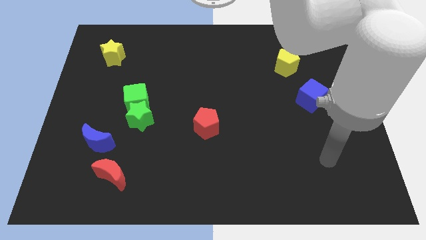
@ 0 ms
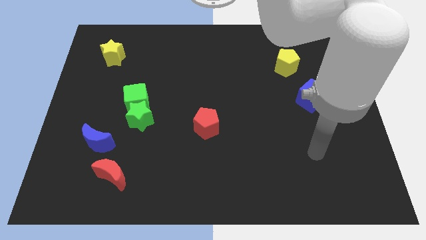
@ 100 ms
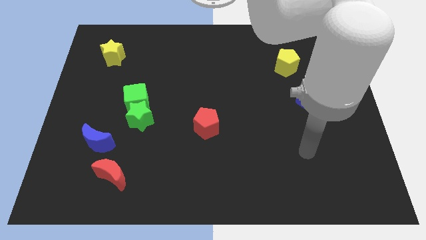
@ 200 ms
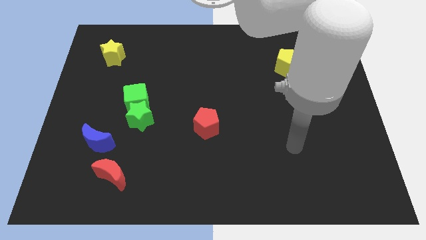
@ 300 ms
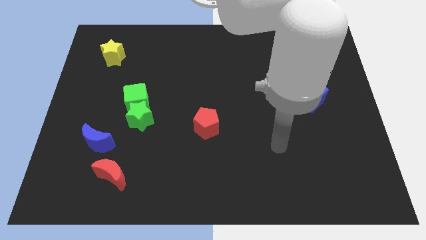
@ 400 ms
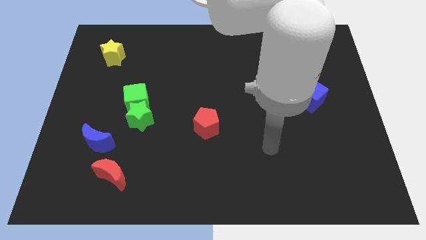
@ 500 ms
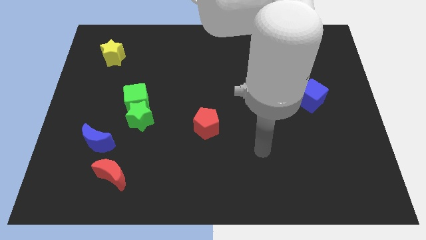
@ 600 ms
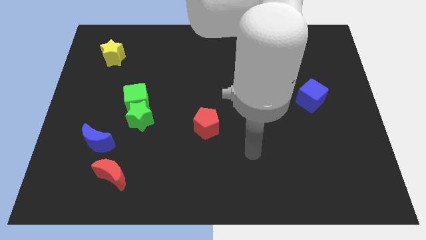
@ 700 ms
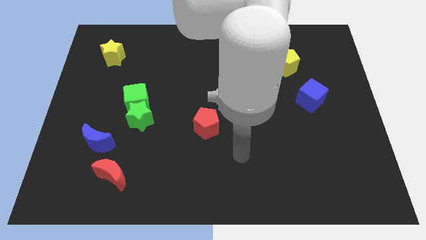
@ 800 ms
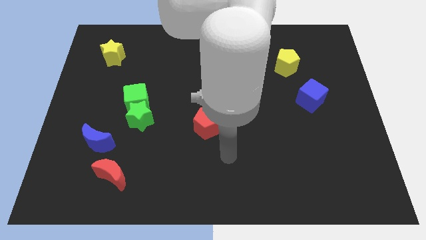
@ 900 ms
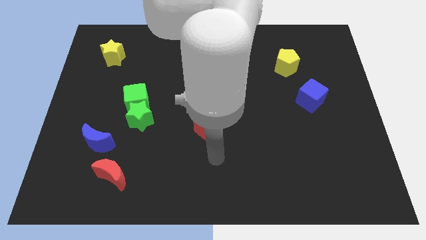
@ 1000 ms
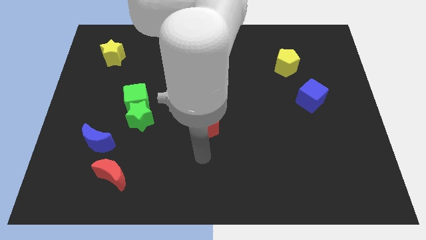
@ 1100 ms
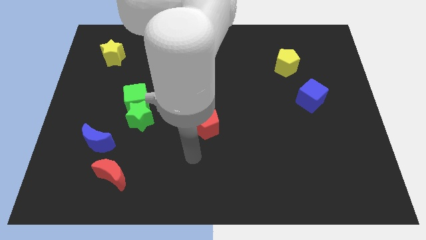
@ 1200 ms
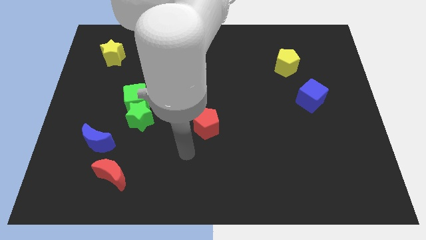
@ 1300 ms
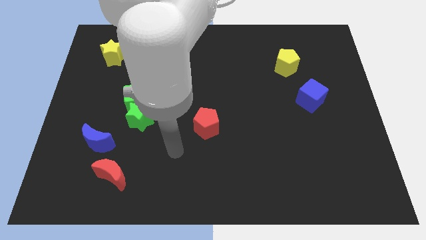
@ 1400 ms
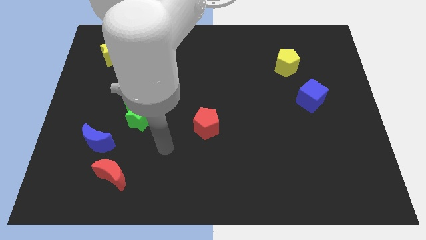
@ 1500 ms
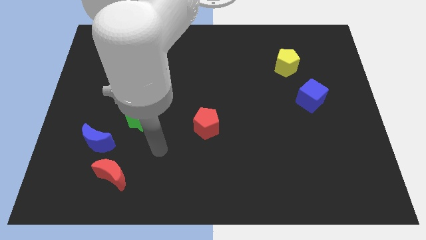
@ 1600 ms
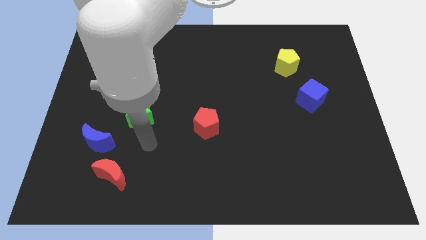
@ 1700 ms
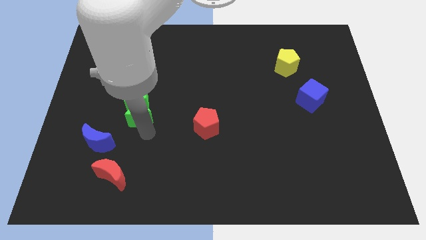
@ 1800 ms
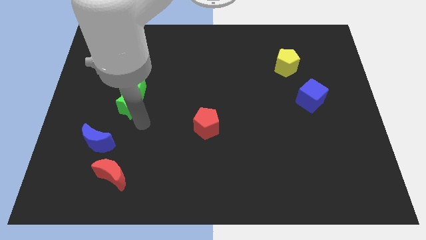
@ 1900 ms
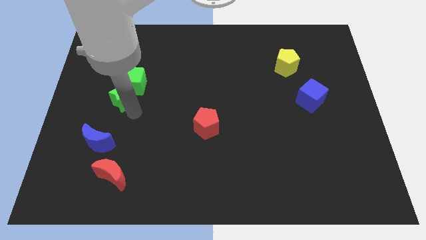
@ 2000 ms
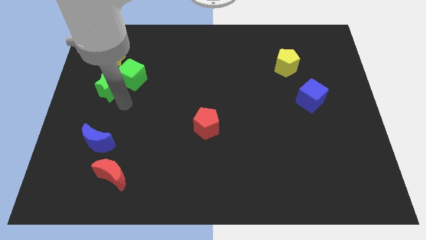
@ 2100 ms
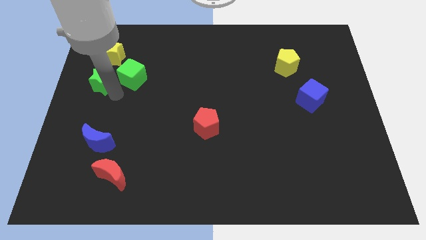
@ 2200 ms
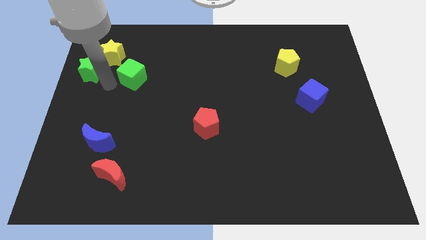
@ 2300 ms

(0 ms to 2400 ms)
pull the green cube apart from the green star

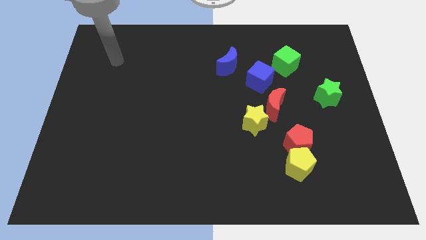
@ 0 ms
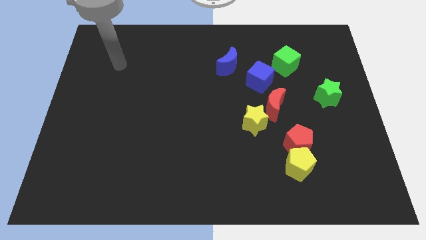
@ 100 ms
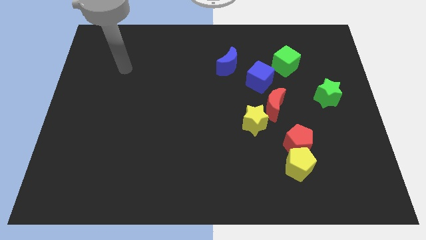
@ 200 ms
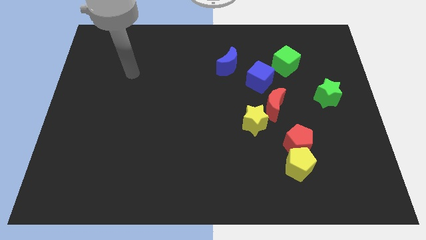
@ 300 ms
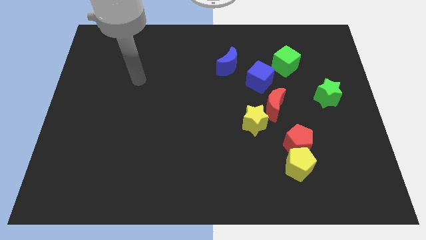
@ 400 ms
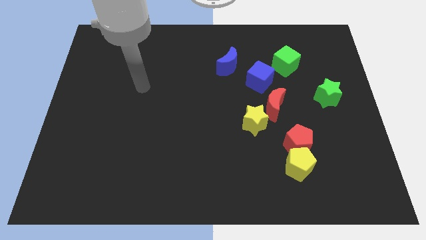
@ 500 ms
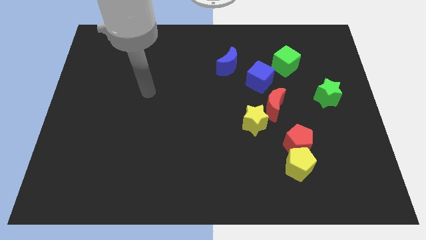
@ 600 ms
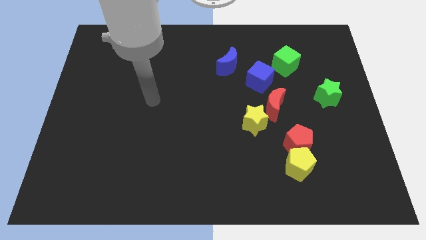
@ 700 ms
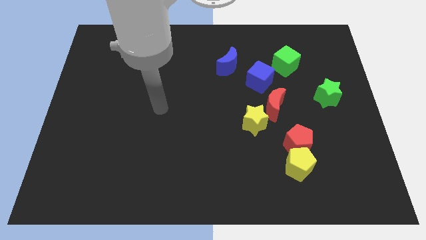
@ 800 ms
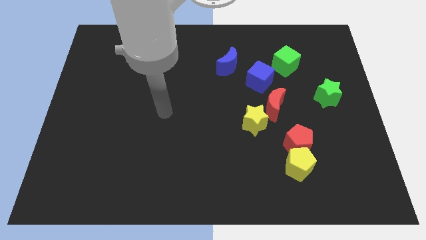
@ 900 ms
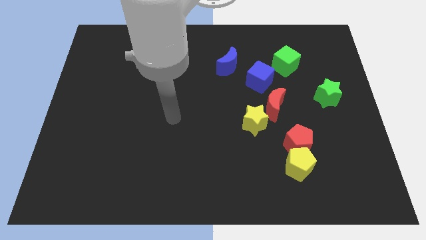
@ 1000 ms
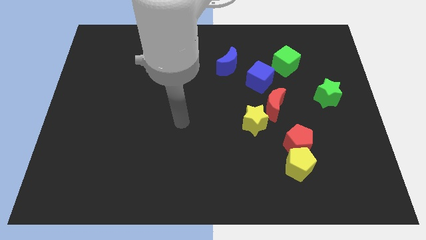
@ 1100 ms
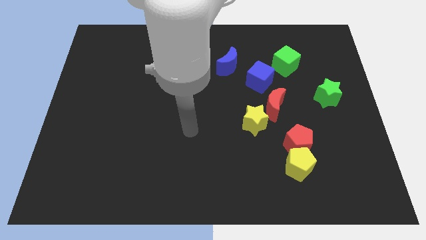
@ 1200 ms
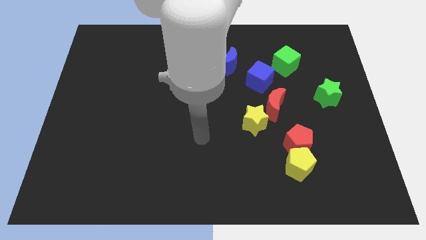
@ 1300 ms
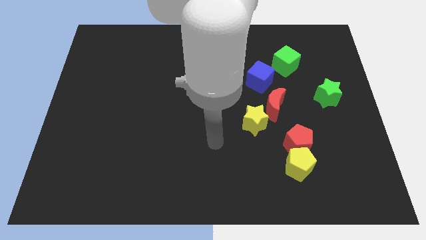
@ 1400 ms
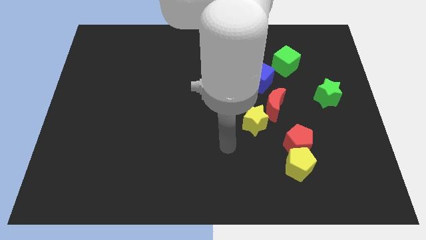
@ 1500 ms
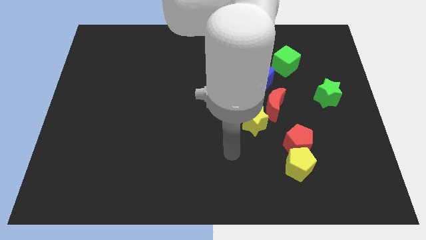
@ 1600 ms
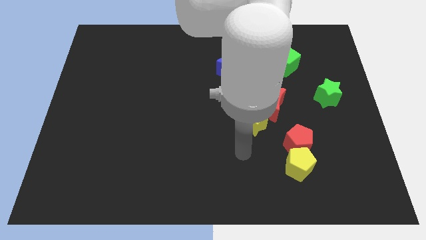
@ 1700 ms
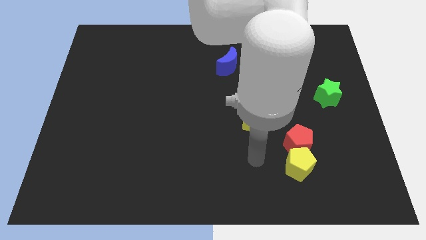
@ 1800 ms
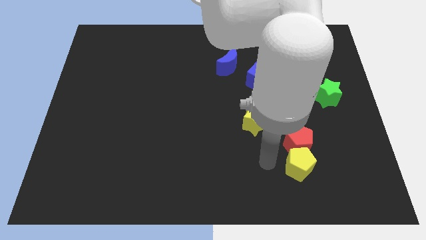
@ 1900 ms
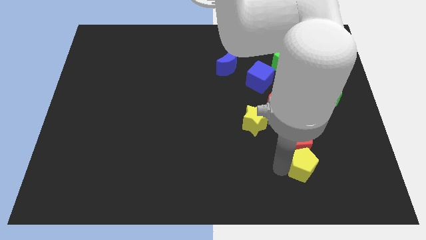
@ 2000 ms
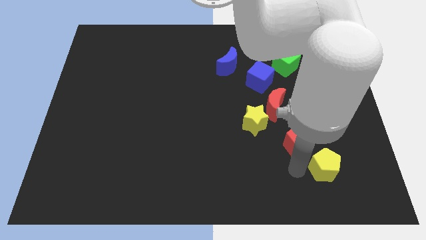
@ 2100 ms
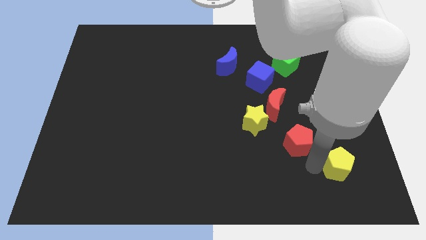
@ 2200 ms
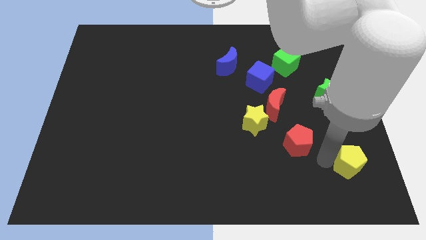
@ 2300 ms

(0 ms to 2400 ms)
pull the red pentagon apart from the yellow pentagon

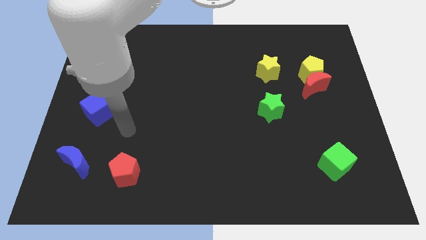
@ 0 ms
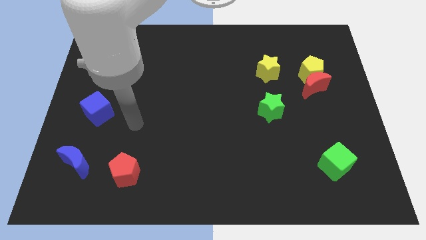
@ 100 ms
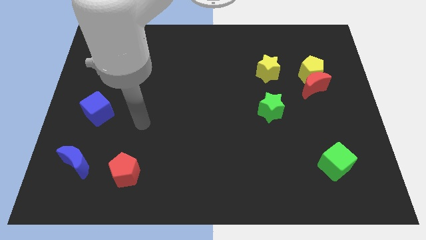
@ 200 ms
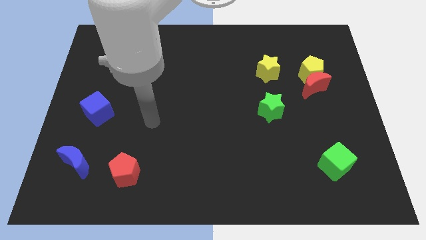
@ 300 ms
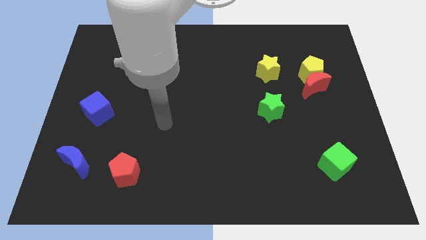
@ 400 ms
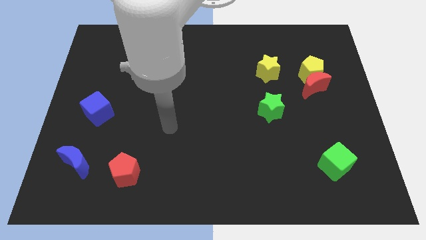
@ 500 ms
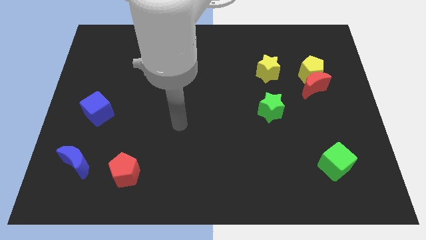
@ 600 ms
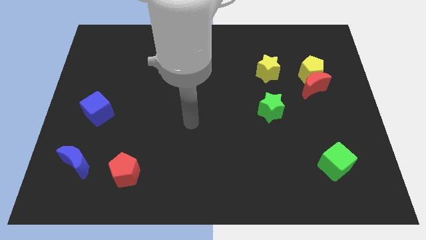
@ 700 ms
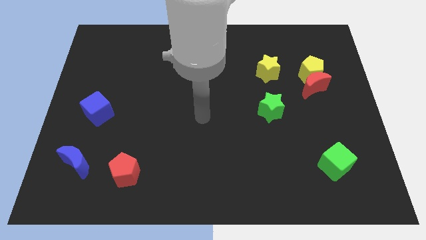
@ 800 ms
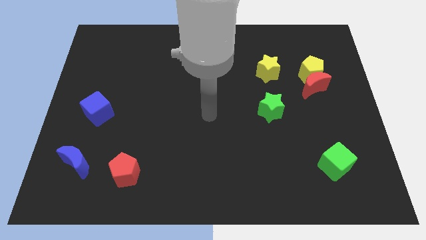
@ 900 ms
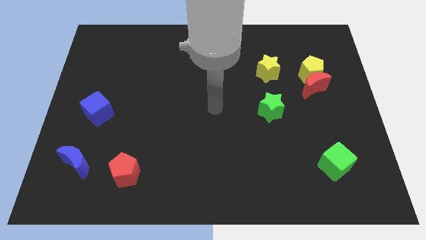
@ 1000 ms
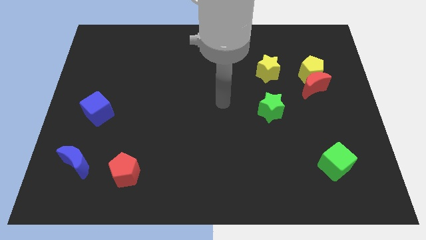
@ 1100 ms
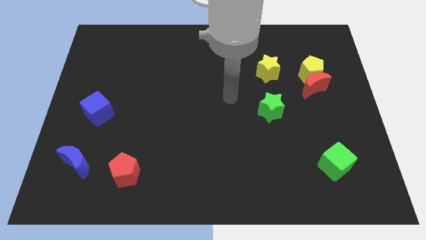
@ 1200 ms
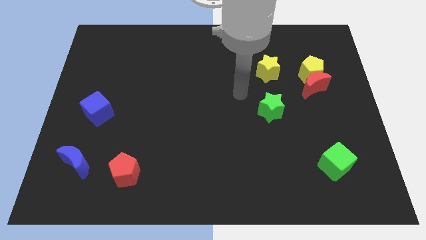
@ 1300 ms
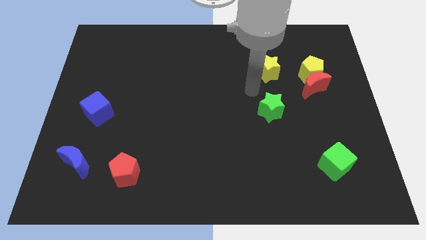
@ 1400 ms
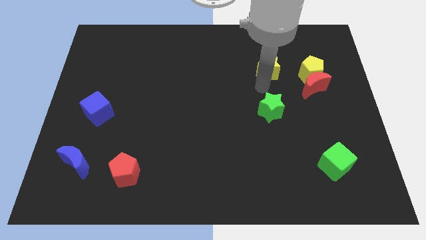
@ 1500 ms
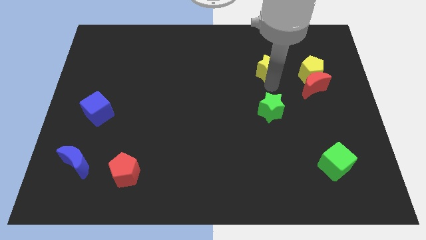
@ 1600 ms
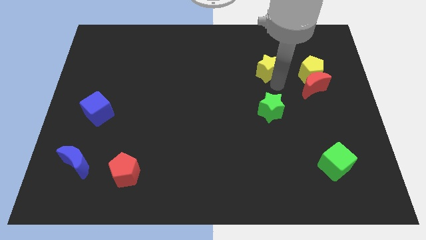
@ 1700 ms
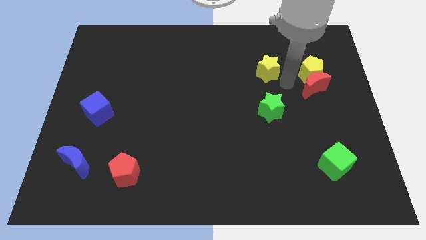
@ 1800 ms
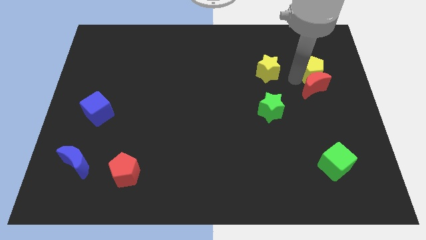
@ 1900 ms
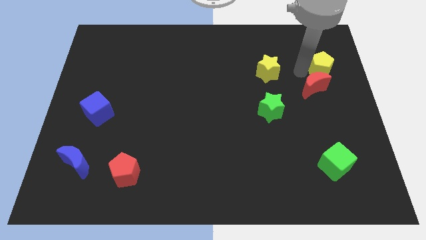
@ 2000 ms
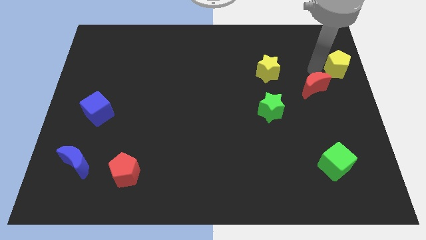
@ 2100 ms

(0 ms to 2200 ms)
move the red moon away from the yellow pentagon

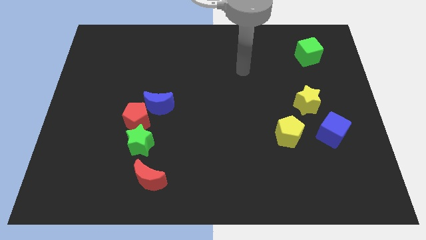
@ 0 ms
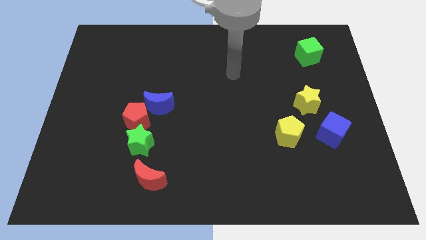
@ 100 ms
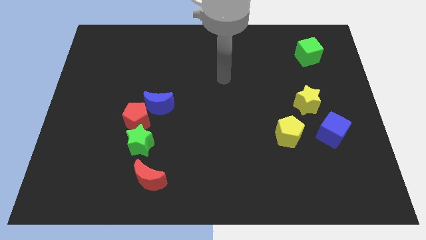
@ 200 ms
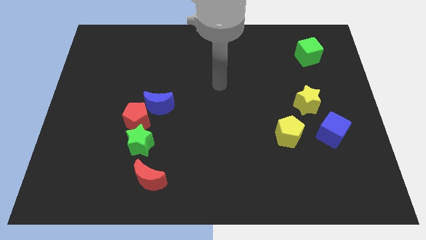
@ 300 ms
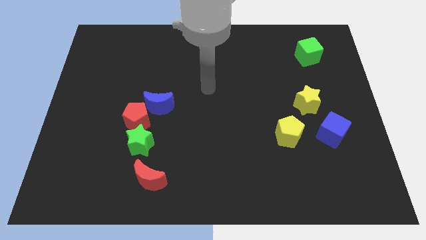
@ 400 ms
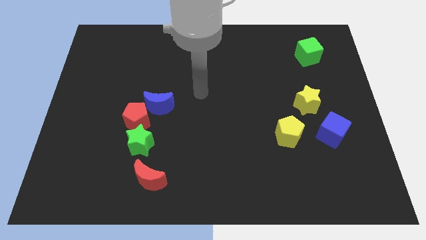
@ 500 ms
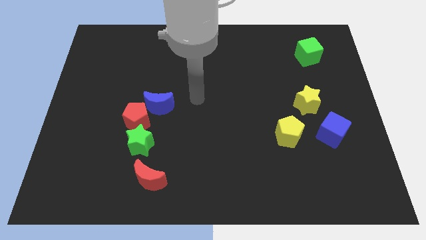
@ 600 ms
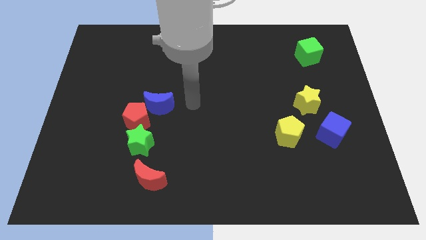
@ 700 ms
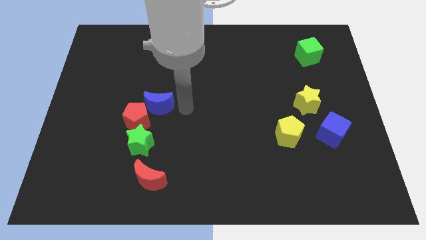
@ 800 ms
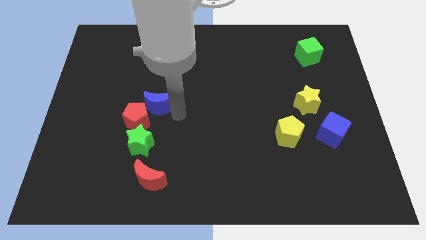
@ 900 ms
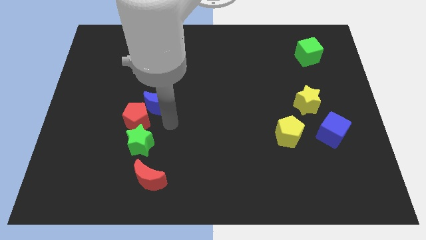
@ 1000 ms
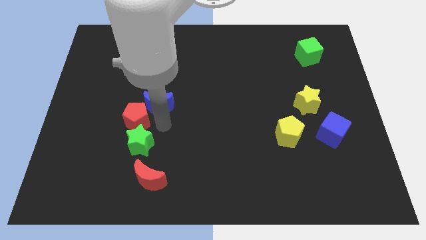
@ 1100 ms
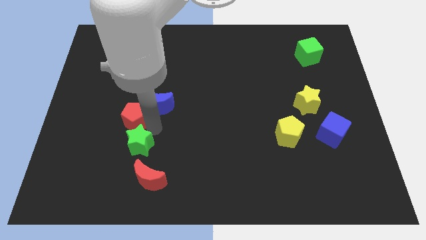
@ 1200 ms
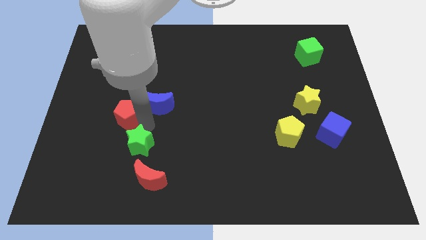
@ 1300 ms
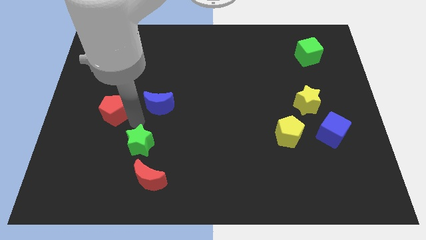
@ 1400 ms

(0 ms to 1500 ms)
separate the blue moon from the red pentagon

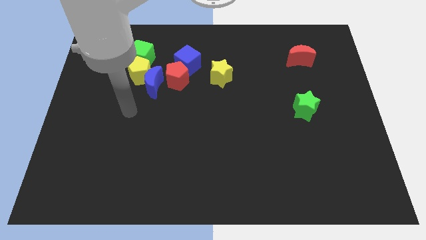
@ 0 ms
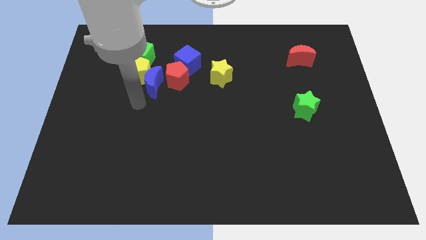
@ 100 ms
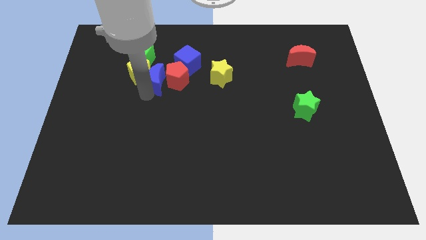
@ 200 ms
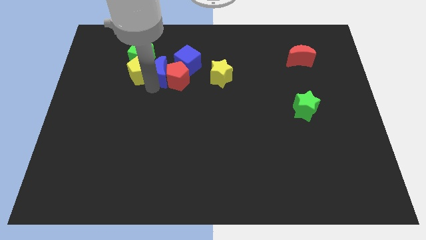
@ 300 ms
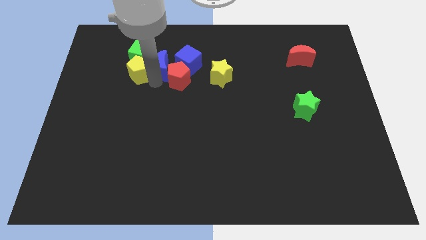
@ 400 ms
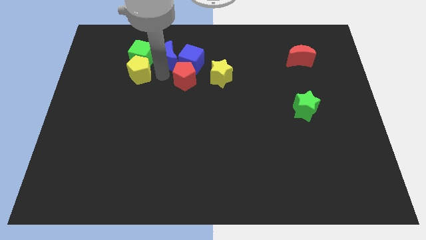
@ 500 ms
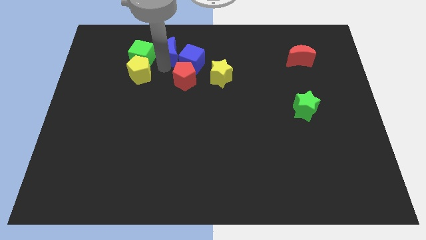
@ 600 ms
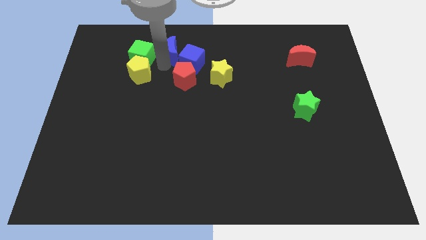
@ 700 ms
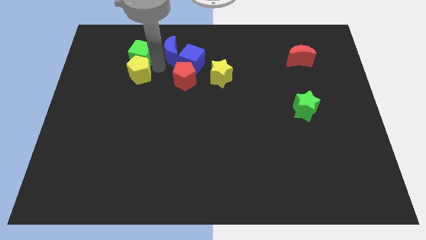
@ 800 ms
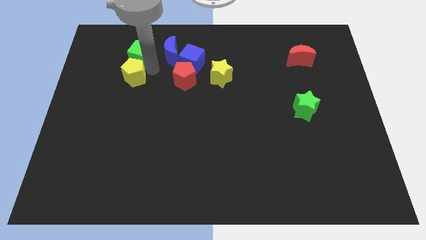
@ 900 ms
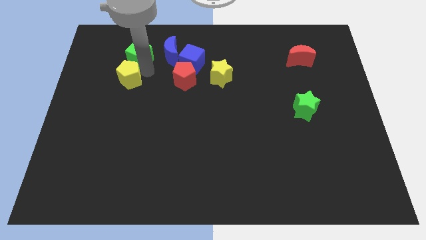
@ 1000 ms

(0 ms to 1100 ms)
separate the yellow pentagon from the group of blocks
